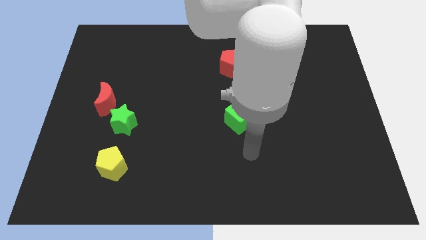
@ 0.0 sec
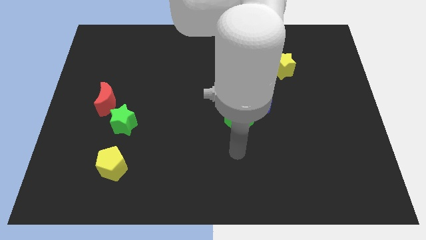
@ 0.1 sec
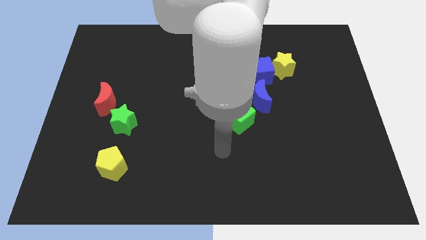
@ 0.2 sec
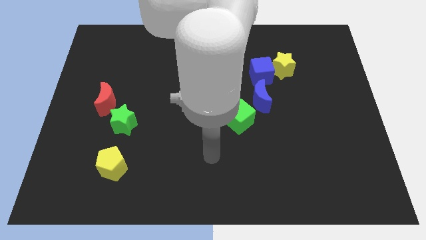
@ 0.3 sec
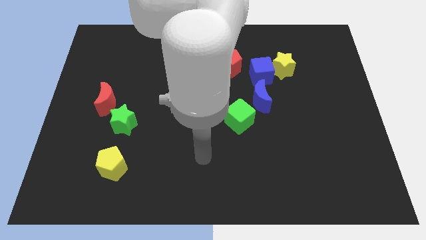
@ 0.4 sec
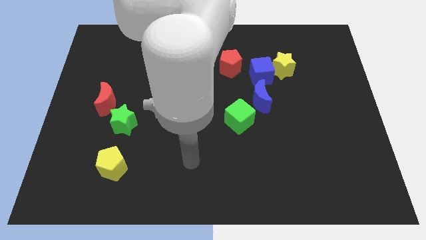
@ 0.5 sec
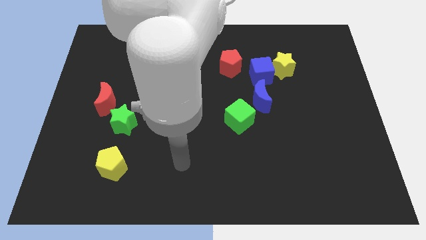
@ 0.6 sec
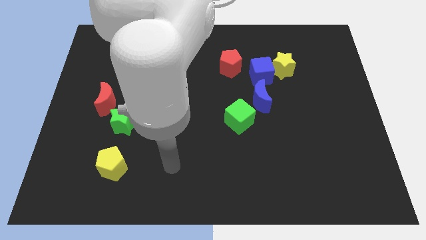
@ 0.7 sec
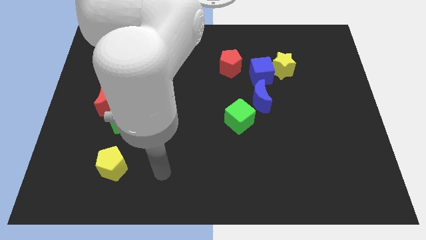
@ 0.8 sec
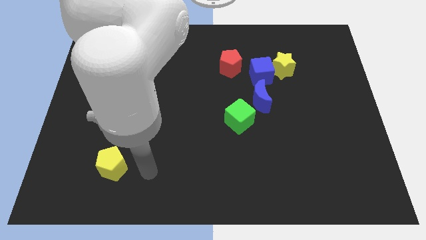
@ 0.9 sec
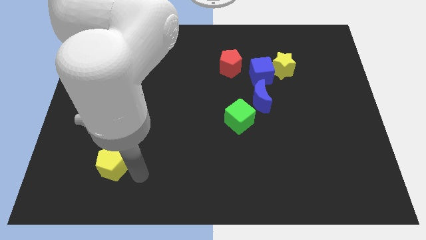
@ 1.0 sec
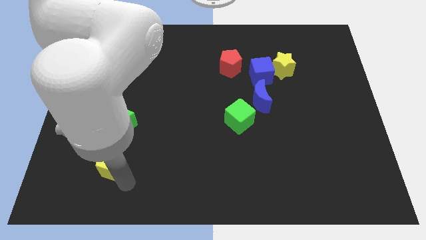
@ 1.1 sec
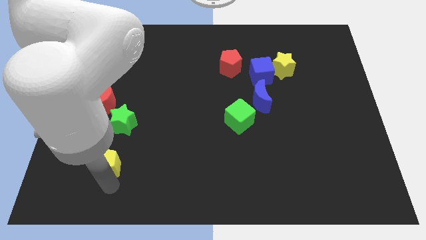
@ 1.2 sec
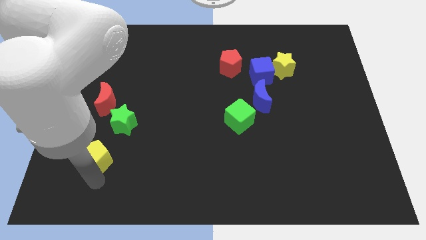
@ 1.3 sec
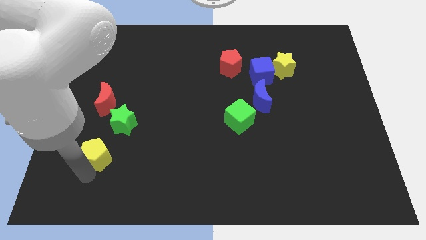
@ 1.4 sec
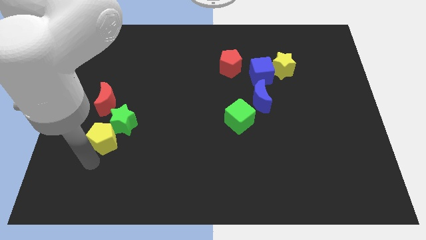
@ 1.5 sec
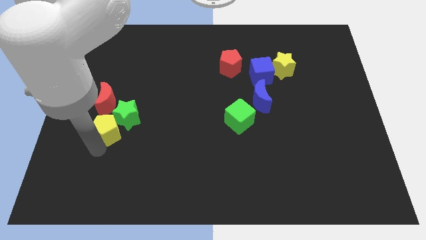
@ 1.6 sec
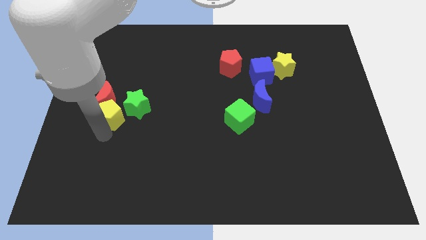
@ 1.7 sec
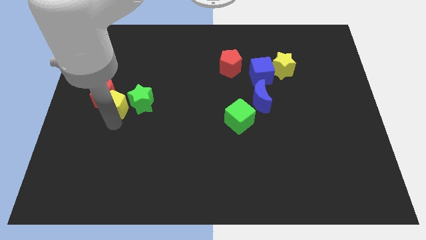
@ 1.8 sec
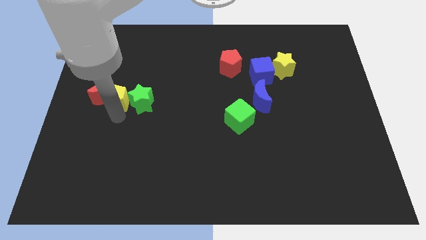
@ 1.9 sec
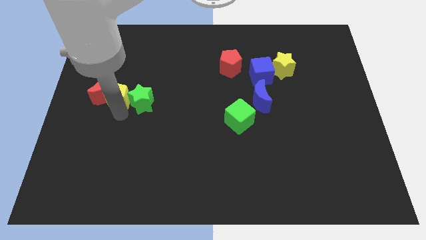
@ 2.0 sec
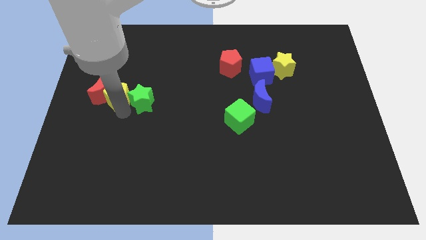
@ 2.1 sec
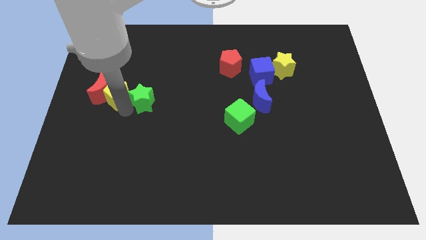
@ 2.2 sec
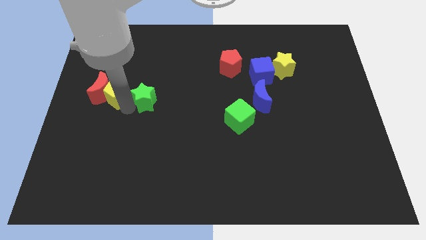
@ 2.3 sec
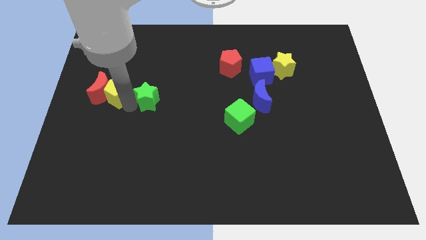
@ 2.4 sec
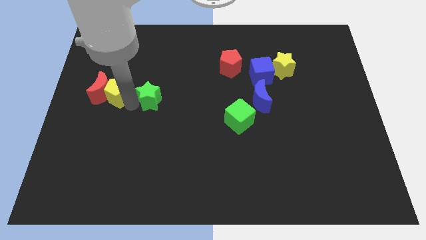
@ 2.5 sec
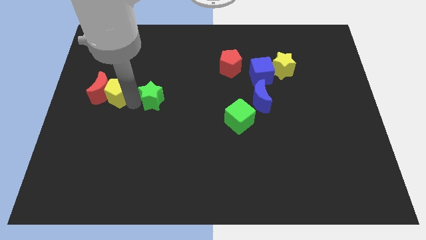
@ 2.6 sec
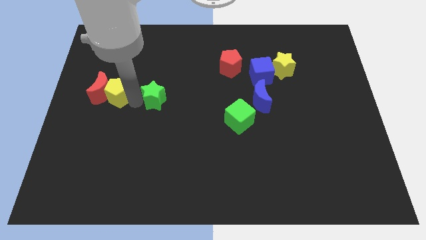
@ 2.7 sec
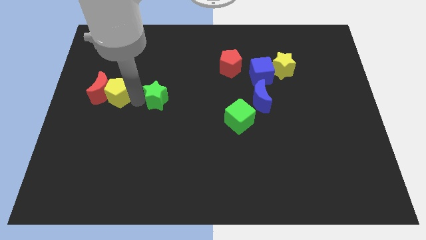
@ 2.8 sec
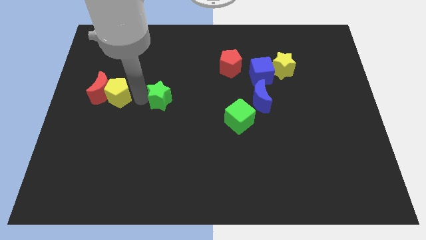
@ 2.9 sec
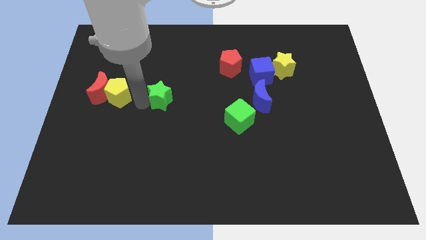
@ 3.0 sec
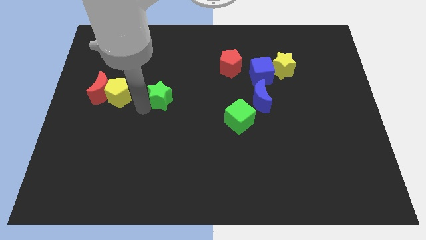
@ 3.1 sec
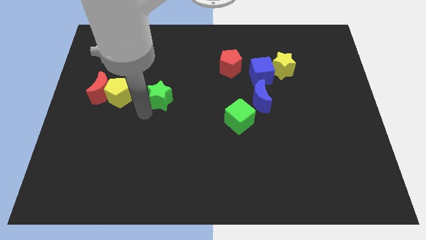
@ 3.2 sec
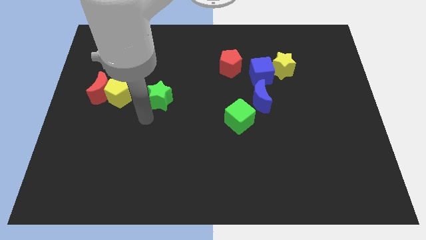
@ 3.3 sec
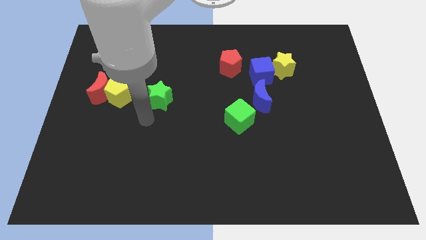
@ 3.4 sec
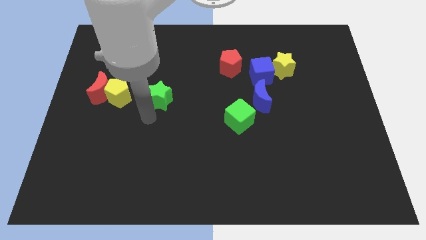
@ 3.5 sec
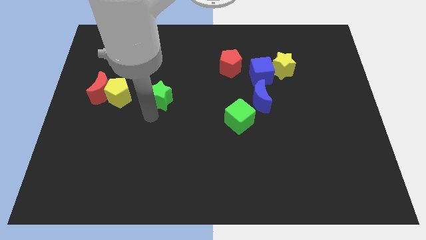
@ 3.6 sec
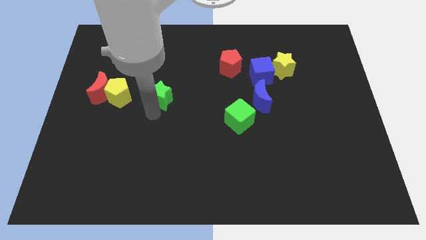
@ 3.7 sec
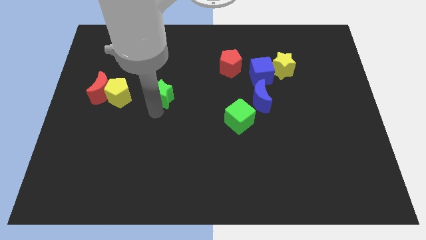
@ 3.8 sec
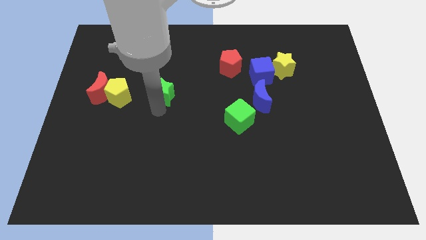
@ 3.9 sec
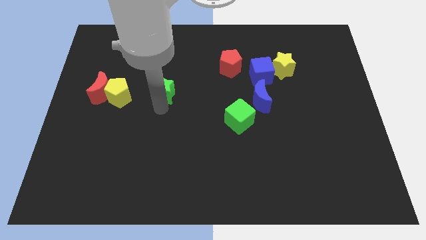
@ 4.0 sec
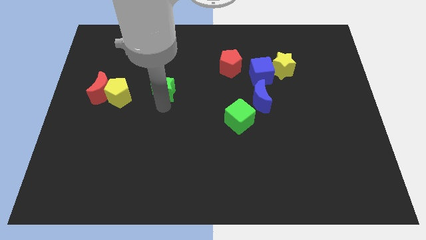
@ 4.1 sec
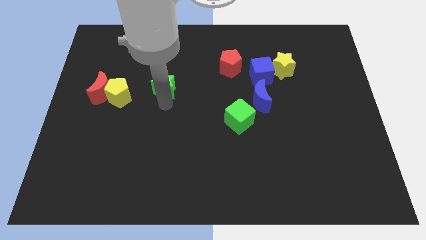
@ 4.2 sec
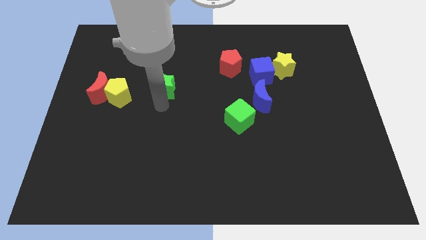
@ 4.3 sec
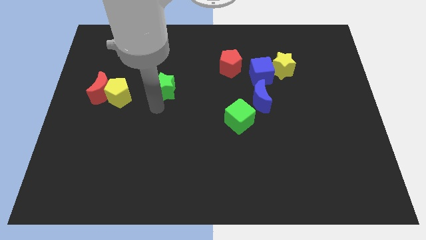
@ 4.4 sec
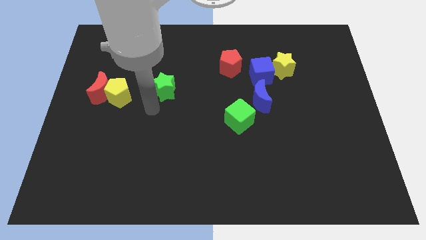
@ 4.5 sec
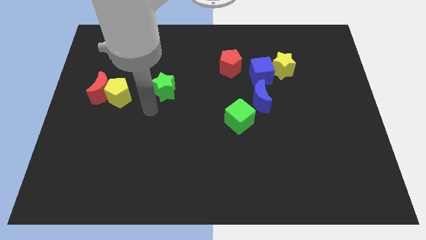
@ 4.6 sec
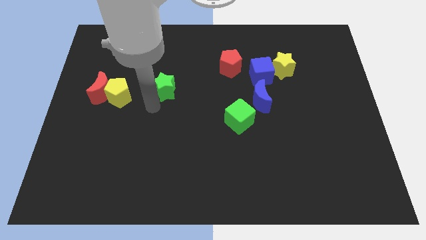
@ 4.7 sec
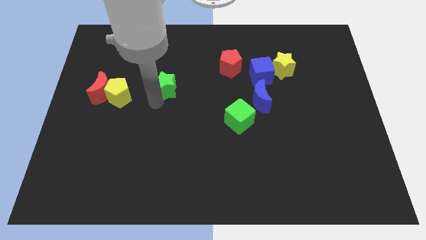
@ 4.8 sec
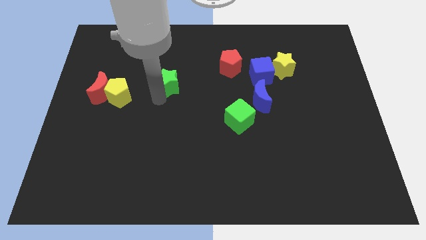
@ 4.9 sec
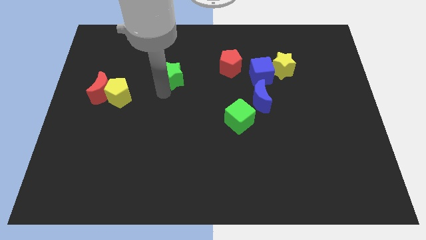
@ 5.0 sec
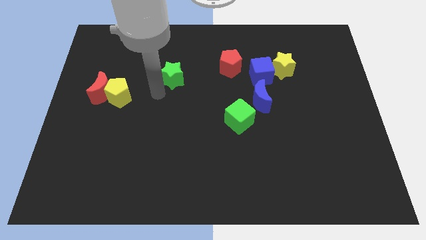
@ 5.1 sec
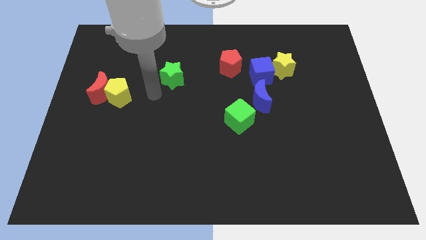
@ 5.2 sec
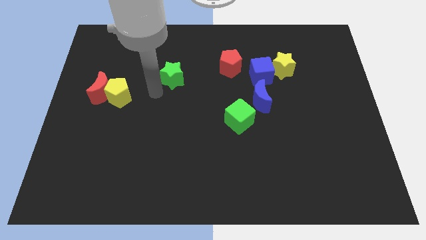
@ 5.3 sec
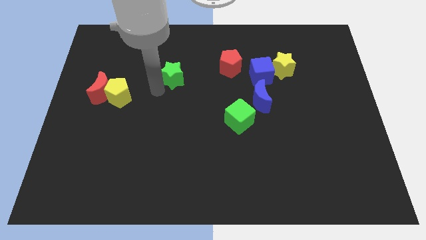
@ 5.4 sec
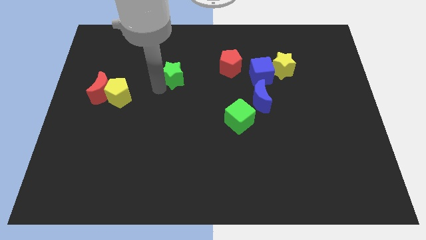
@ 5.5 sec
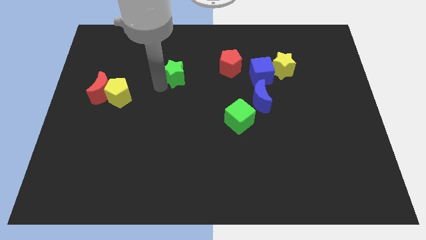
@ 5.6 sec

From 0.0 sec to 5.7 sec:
slide the green star to the left side of the red pentagon

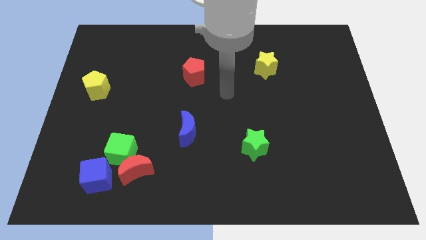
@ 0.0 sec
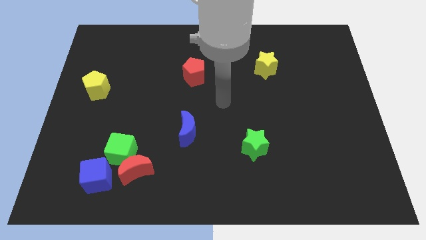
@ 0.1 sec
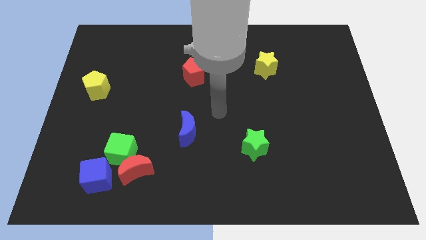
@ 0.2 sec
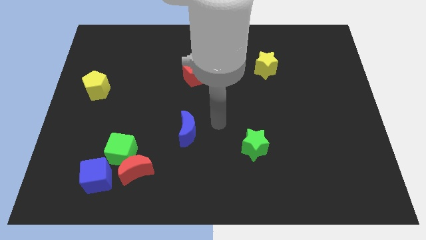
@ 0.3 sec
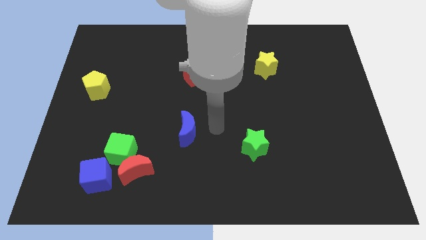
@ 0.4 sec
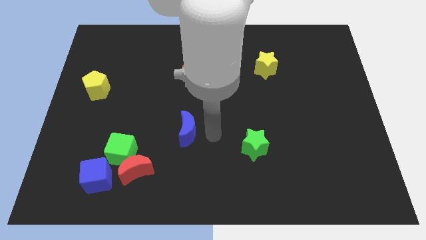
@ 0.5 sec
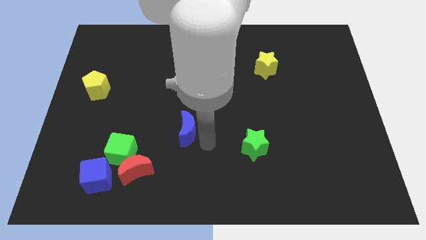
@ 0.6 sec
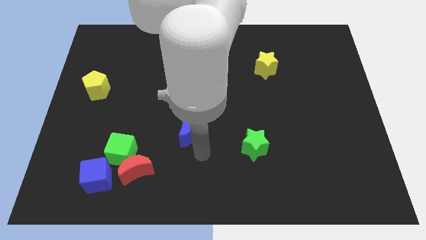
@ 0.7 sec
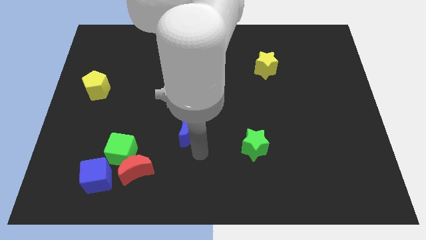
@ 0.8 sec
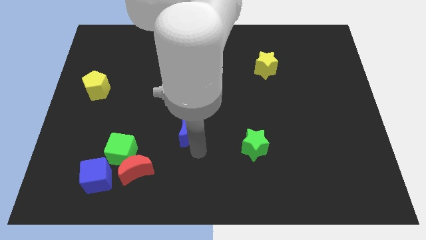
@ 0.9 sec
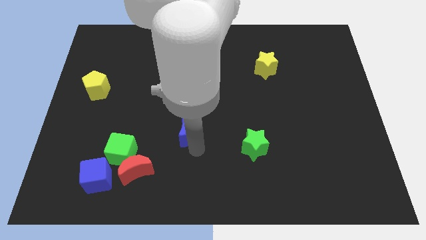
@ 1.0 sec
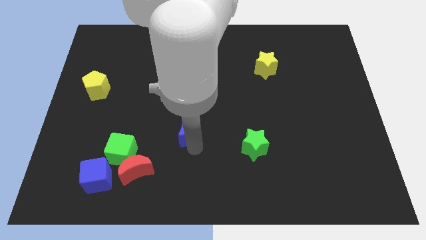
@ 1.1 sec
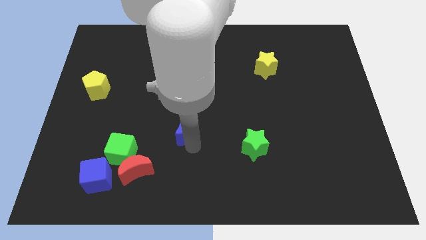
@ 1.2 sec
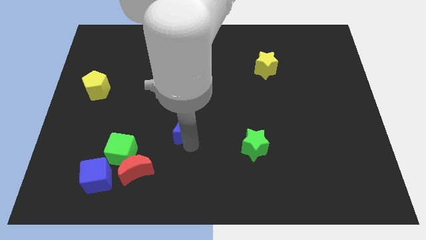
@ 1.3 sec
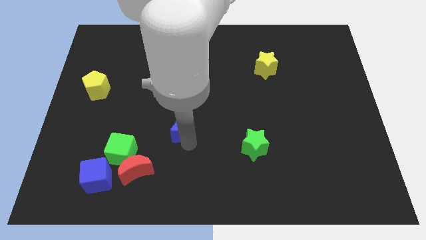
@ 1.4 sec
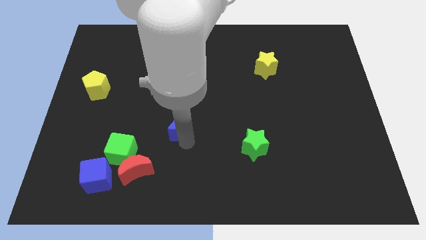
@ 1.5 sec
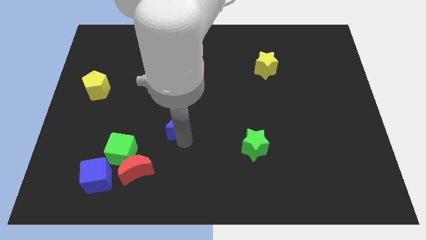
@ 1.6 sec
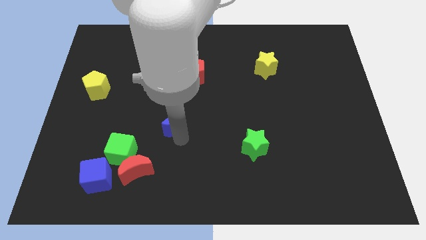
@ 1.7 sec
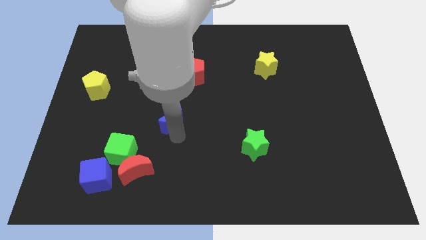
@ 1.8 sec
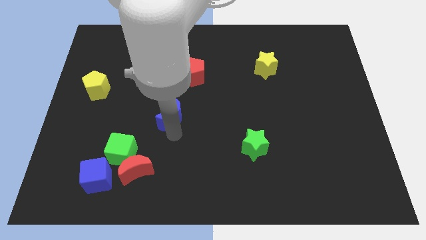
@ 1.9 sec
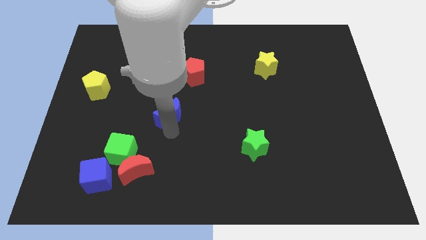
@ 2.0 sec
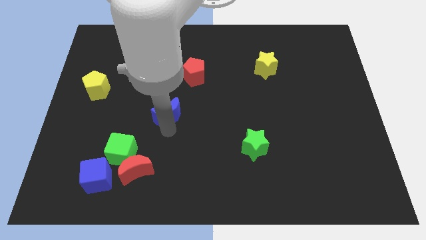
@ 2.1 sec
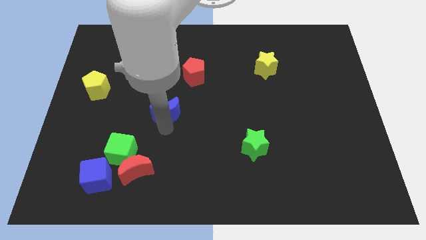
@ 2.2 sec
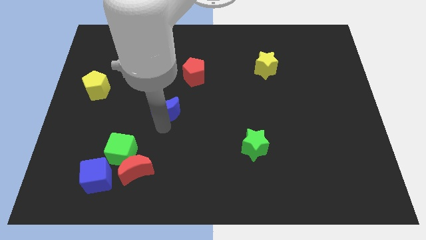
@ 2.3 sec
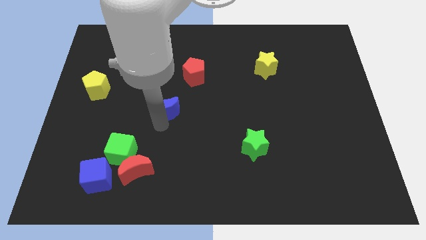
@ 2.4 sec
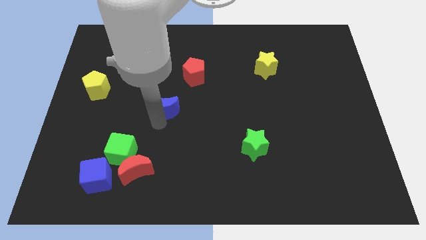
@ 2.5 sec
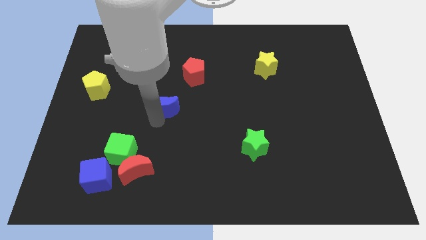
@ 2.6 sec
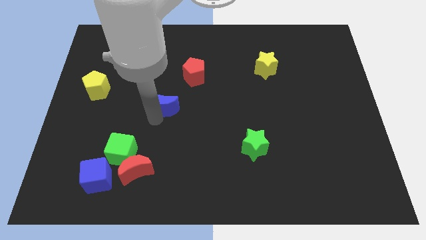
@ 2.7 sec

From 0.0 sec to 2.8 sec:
slide the blue moon diagonally down and to the left of the red pentagon
